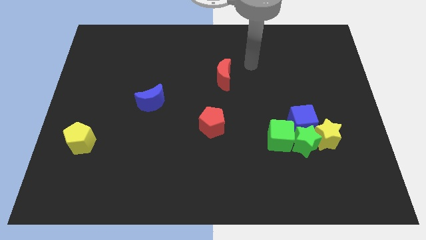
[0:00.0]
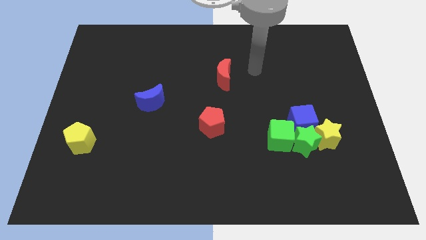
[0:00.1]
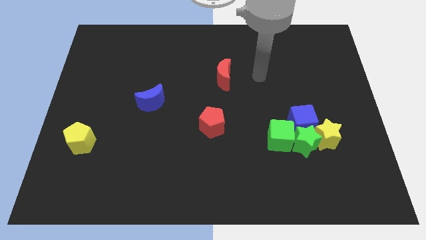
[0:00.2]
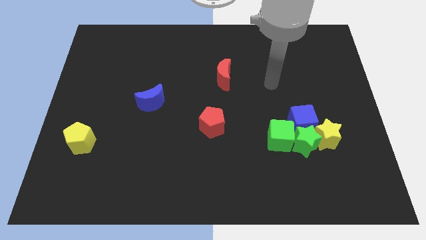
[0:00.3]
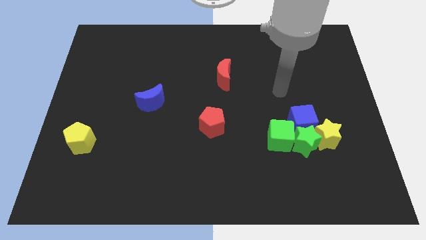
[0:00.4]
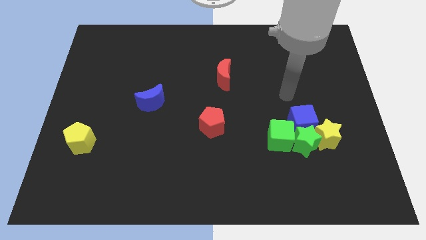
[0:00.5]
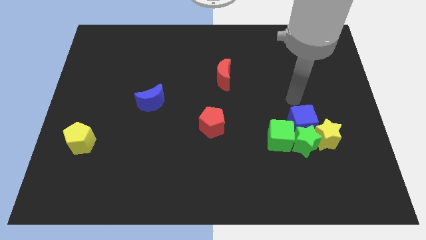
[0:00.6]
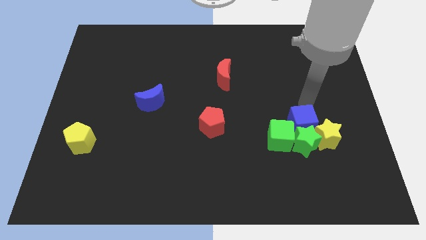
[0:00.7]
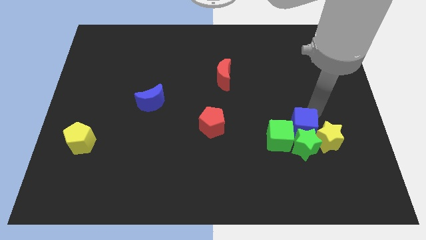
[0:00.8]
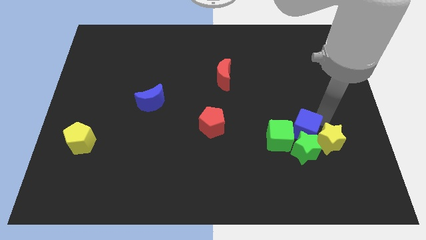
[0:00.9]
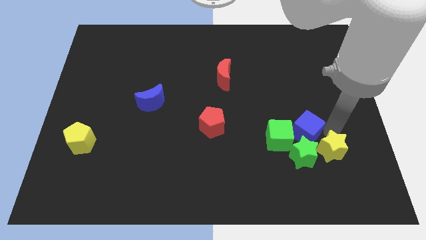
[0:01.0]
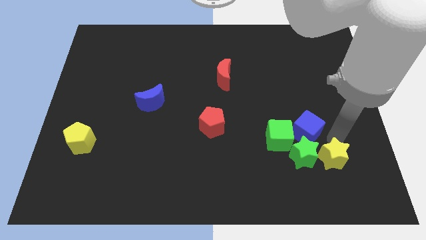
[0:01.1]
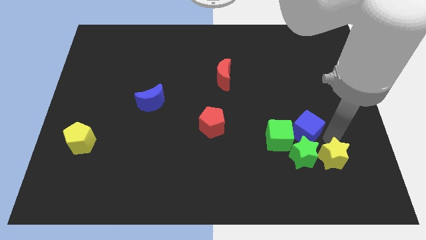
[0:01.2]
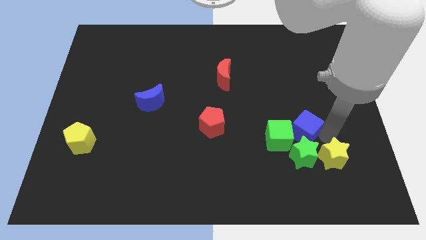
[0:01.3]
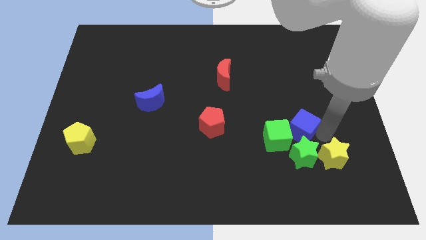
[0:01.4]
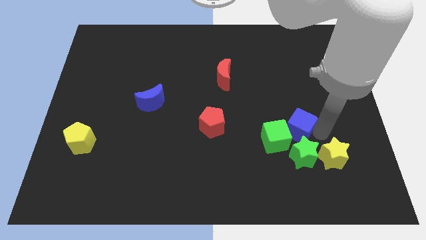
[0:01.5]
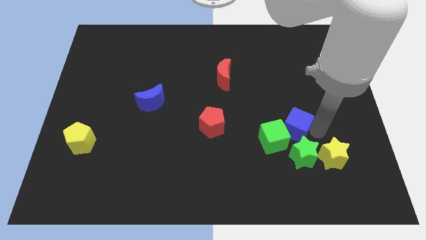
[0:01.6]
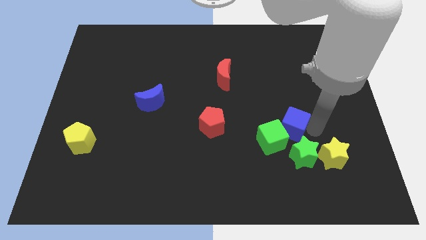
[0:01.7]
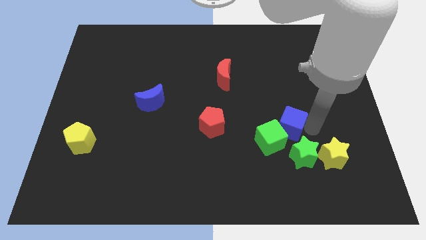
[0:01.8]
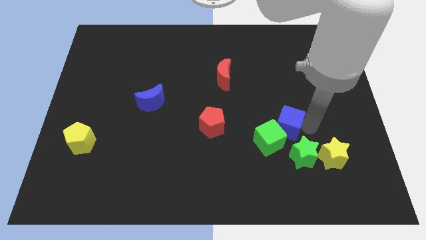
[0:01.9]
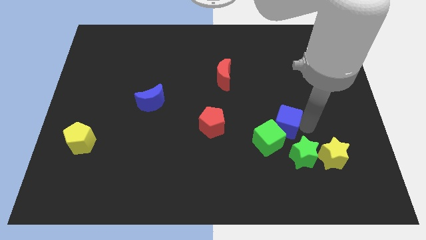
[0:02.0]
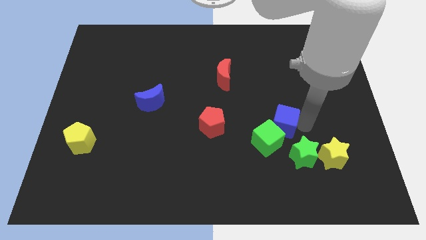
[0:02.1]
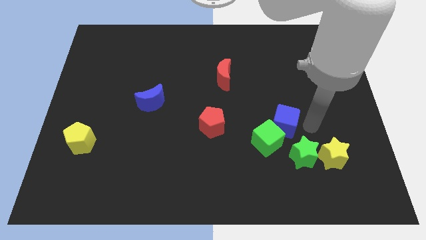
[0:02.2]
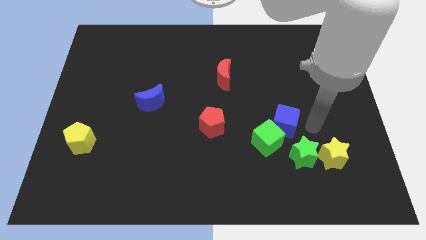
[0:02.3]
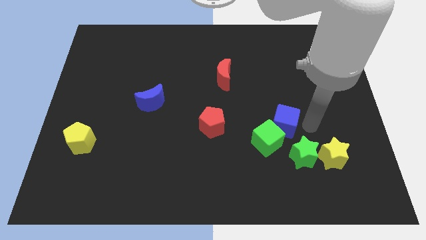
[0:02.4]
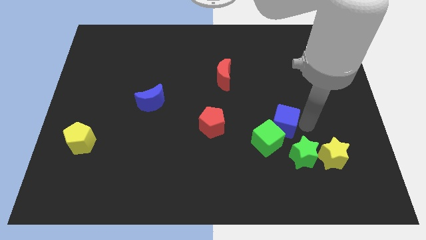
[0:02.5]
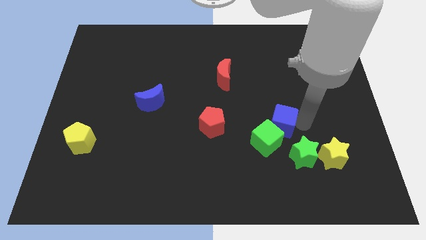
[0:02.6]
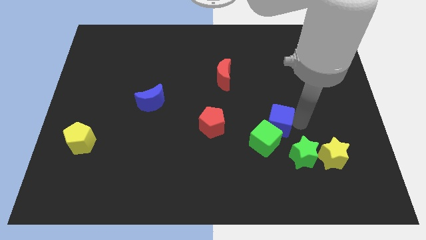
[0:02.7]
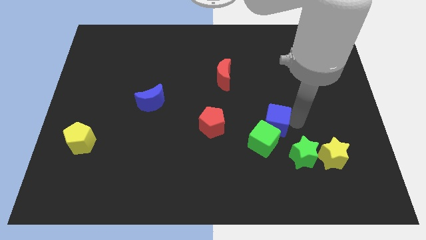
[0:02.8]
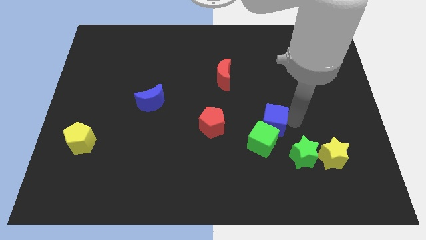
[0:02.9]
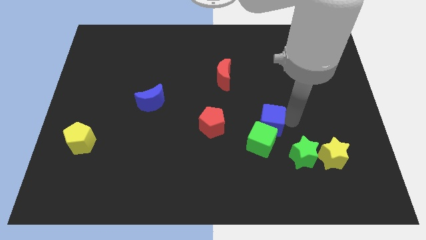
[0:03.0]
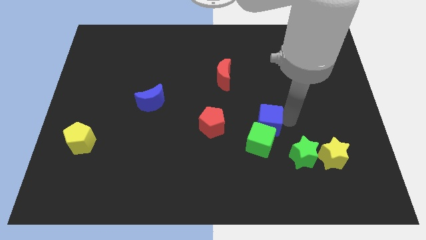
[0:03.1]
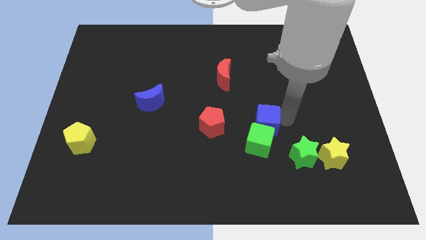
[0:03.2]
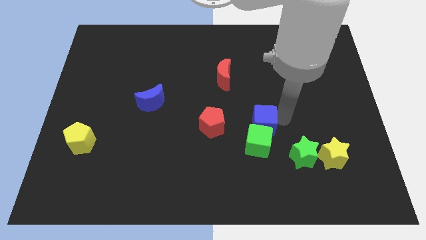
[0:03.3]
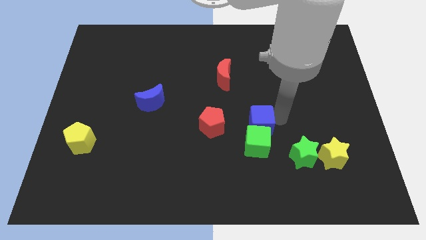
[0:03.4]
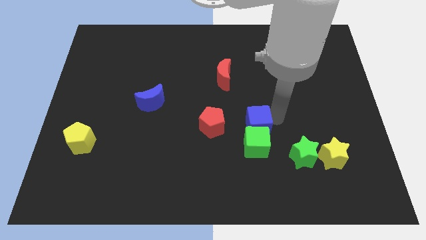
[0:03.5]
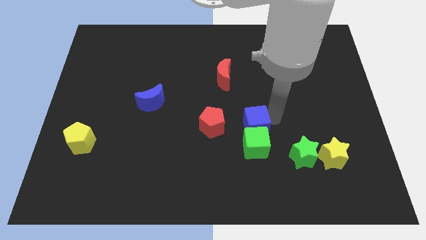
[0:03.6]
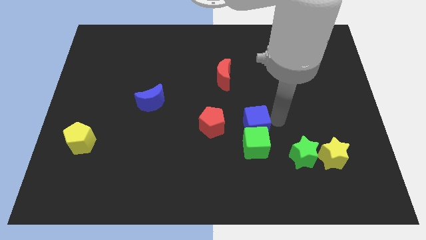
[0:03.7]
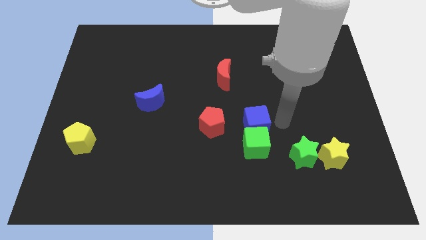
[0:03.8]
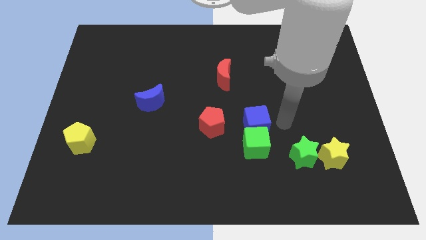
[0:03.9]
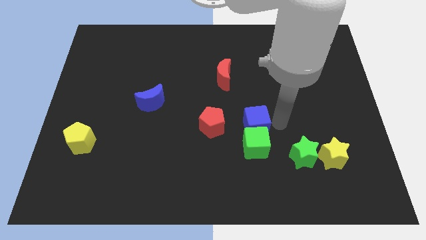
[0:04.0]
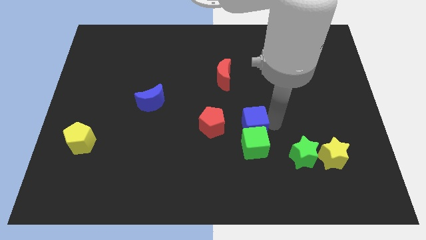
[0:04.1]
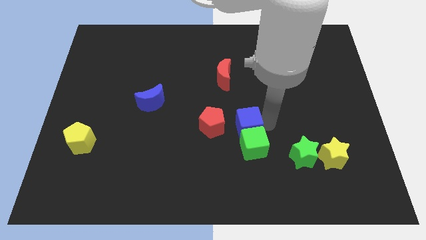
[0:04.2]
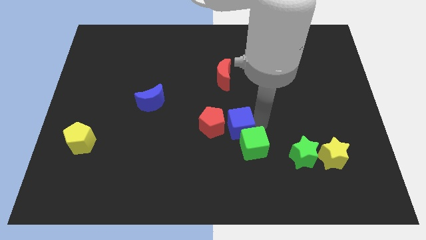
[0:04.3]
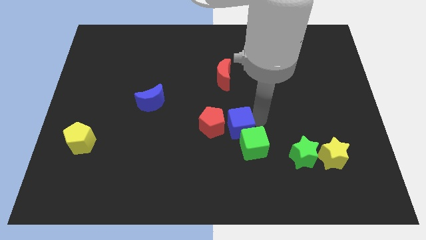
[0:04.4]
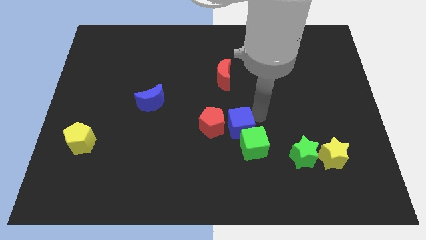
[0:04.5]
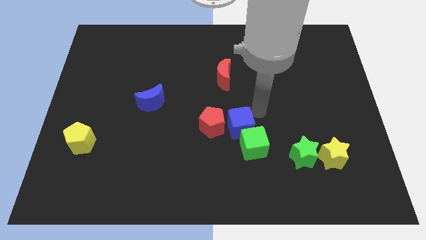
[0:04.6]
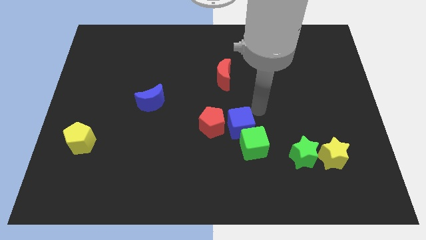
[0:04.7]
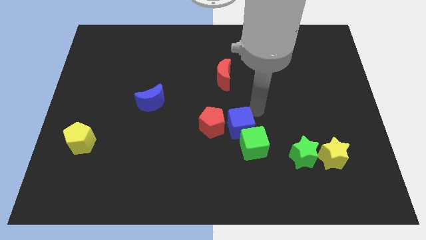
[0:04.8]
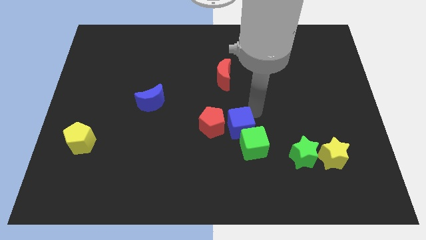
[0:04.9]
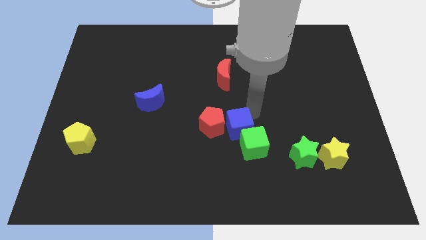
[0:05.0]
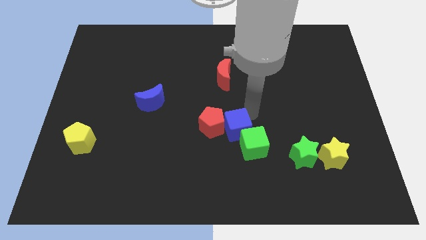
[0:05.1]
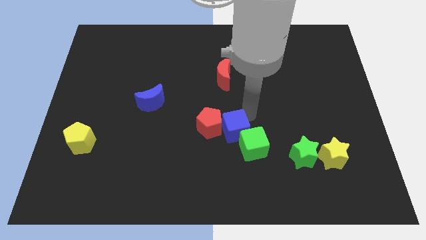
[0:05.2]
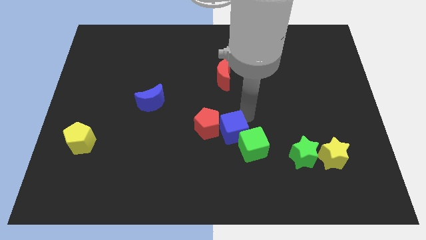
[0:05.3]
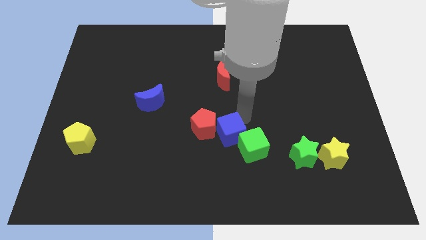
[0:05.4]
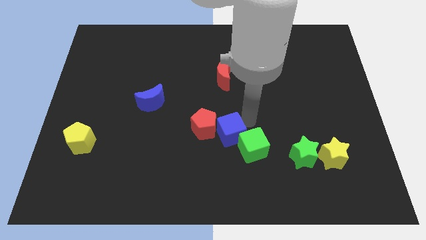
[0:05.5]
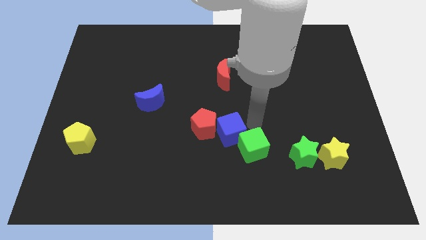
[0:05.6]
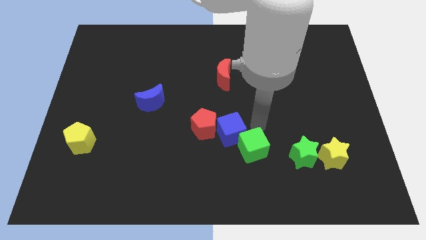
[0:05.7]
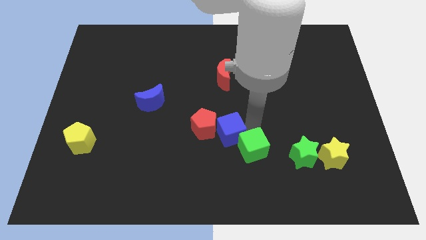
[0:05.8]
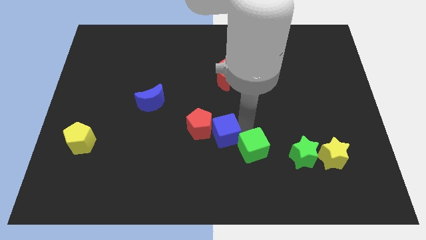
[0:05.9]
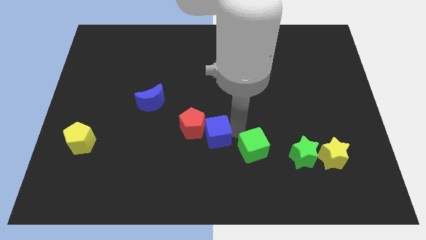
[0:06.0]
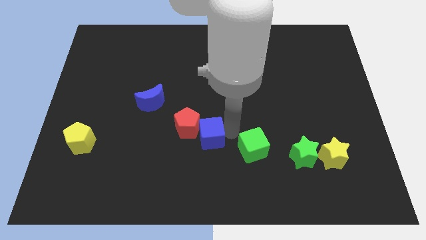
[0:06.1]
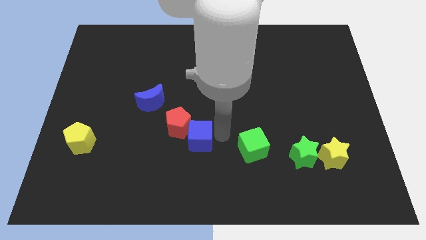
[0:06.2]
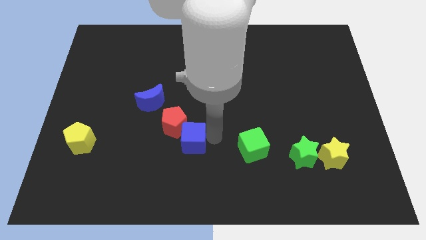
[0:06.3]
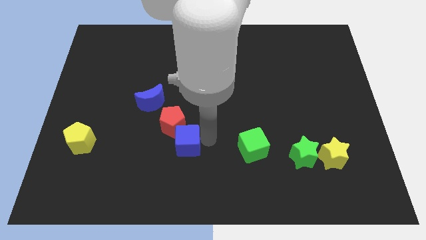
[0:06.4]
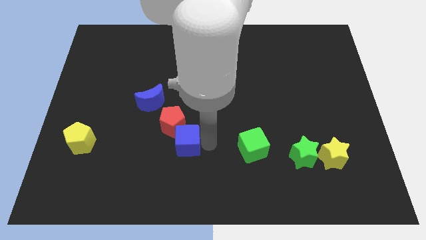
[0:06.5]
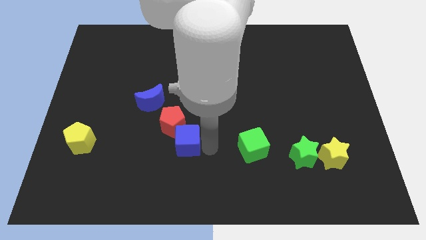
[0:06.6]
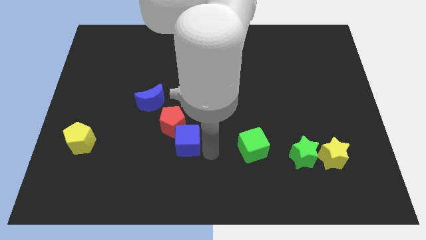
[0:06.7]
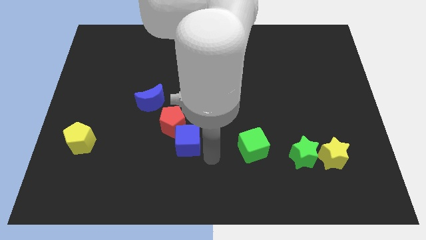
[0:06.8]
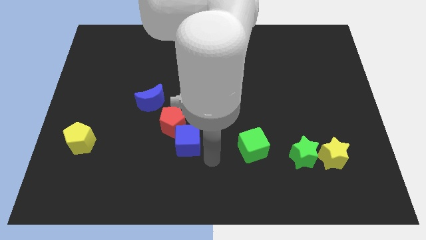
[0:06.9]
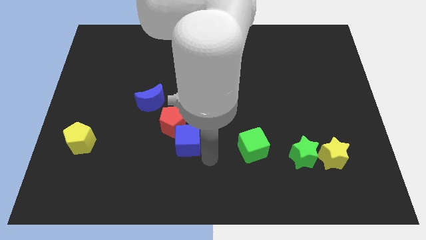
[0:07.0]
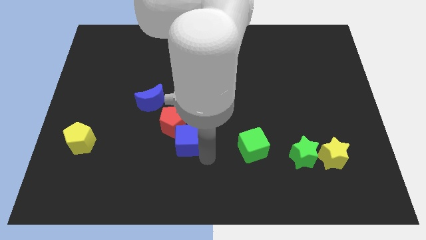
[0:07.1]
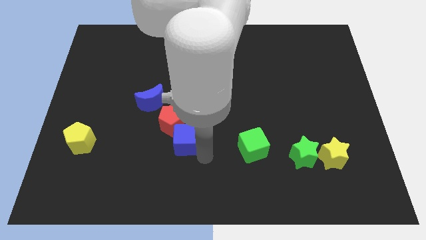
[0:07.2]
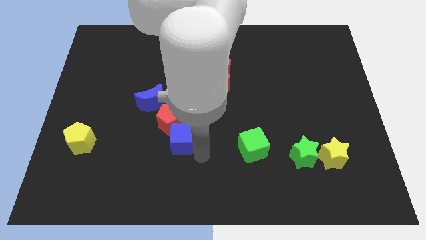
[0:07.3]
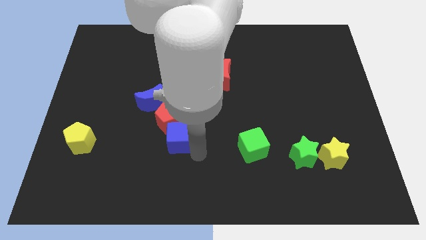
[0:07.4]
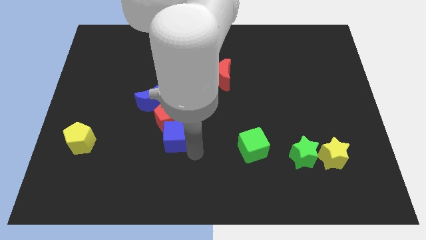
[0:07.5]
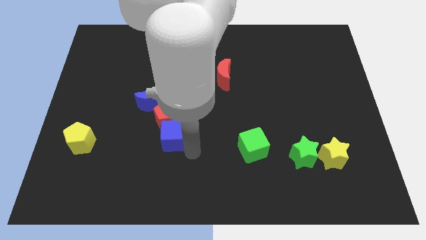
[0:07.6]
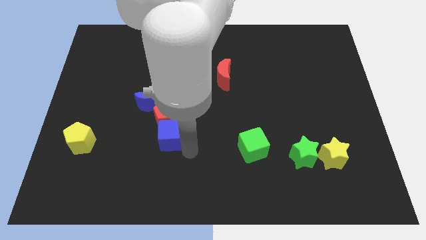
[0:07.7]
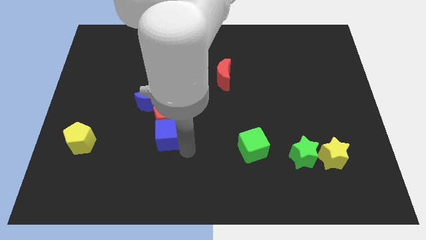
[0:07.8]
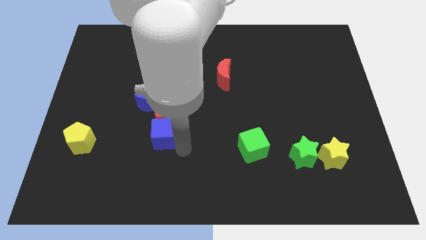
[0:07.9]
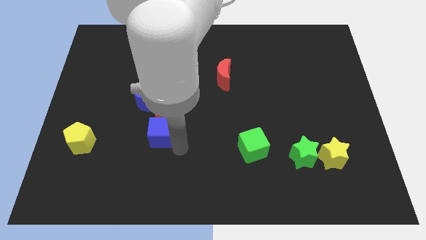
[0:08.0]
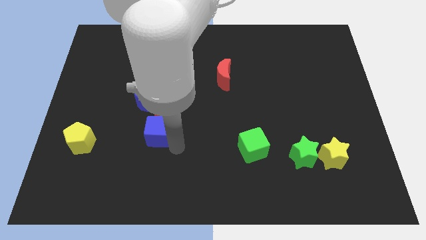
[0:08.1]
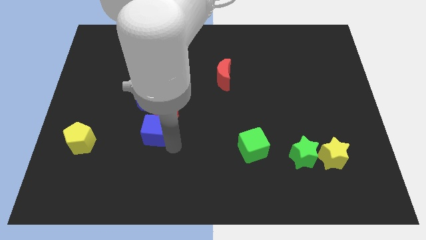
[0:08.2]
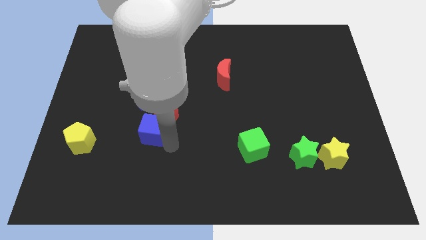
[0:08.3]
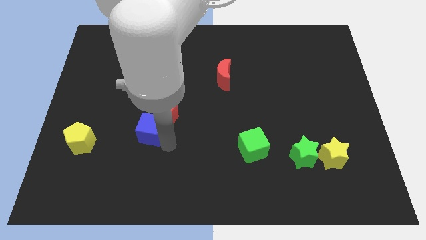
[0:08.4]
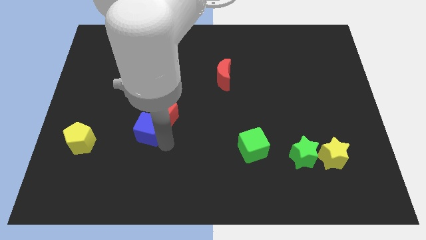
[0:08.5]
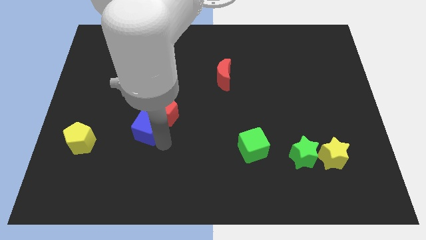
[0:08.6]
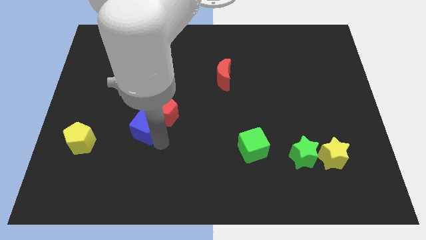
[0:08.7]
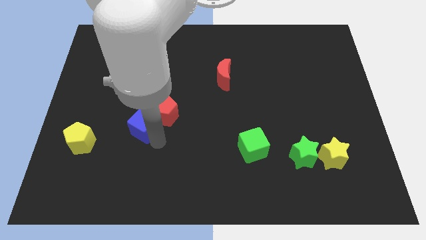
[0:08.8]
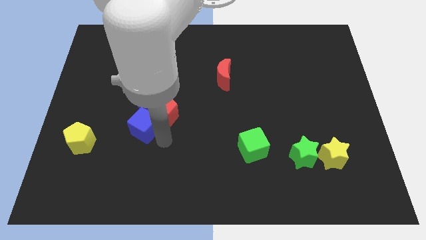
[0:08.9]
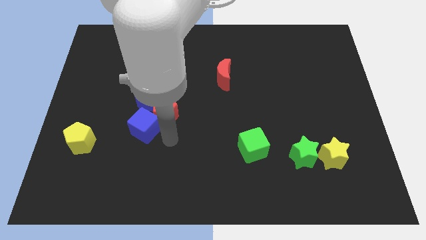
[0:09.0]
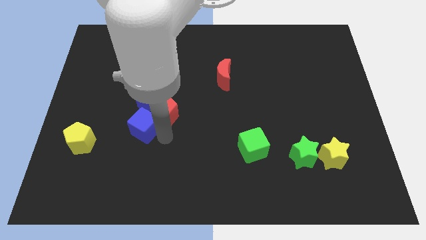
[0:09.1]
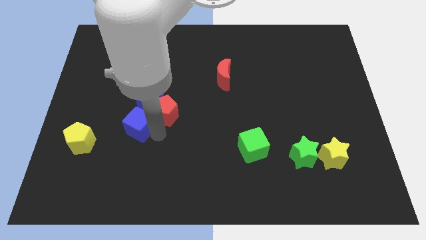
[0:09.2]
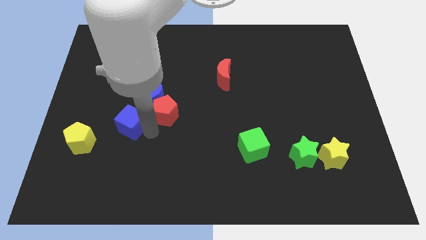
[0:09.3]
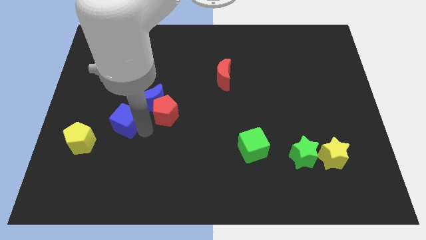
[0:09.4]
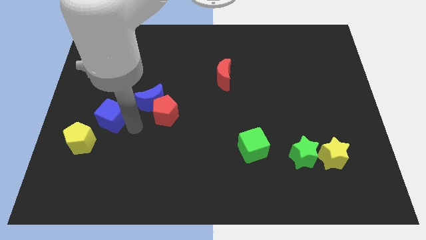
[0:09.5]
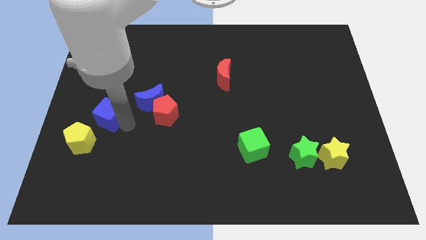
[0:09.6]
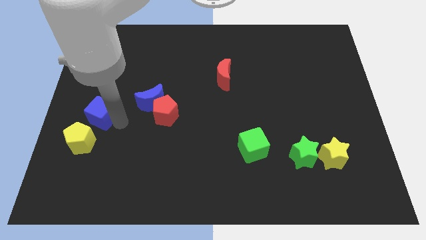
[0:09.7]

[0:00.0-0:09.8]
push the blue cube to the top of the yellow pentagon
